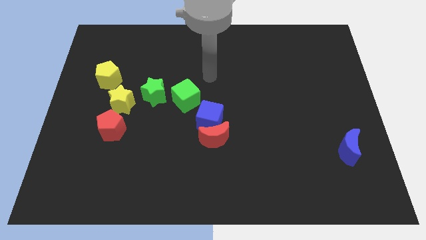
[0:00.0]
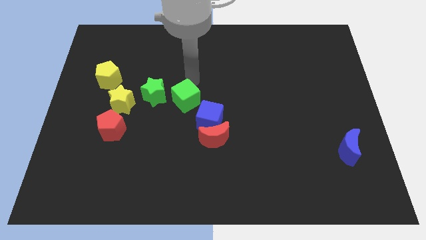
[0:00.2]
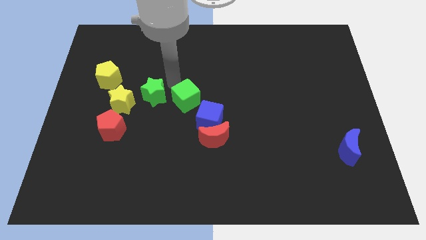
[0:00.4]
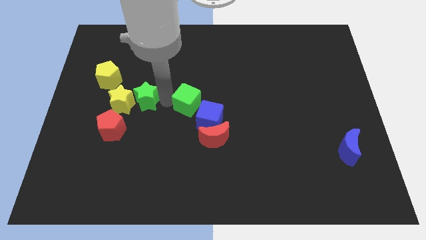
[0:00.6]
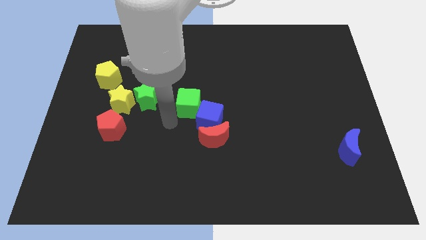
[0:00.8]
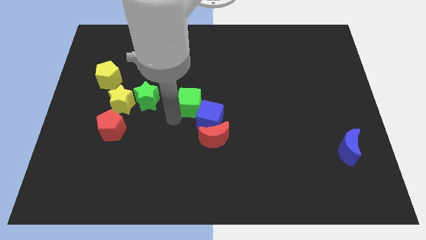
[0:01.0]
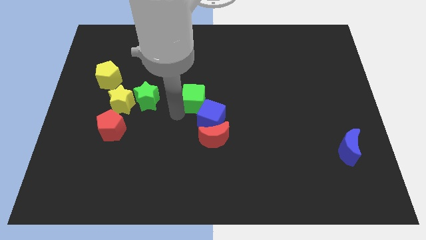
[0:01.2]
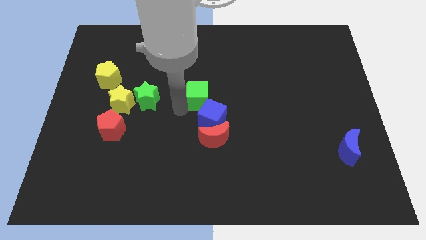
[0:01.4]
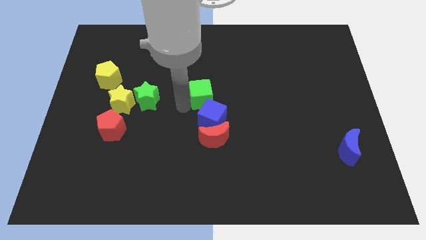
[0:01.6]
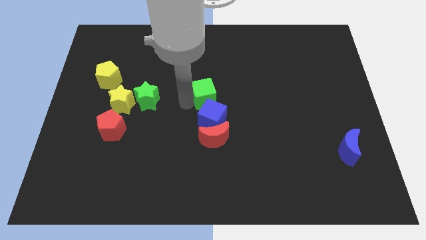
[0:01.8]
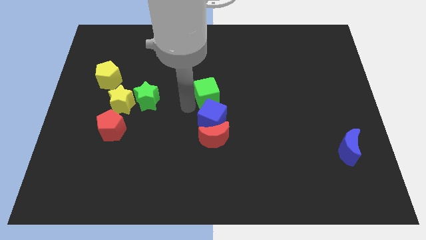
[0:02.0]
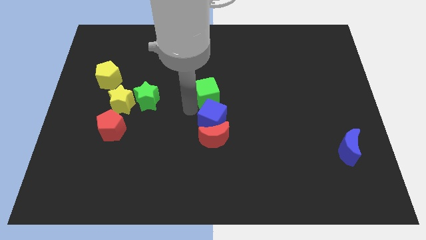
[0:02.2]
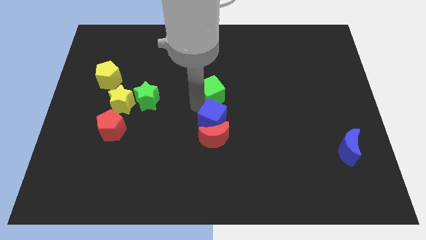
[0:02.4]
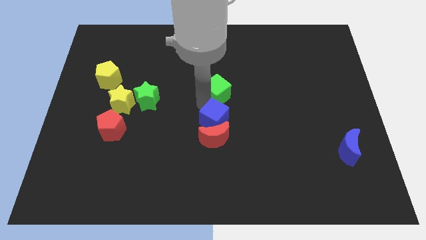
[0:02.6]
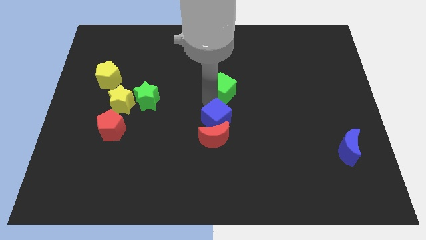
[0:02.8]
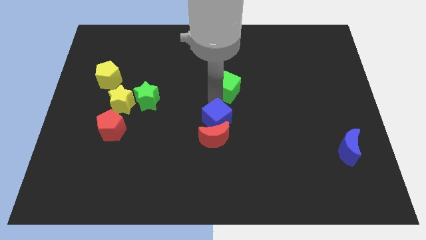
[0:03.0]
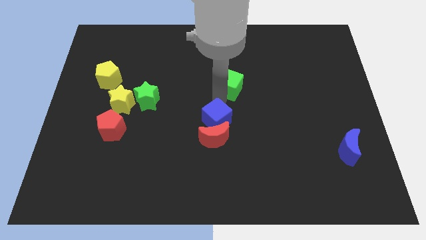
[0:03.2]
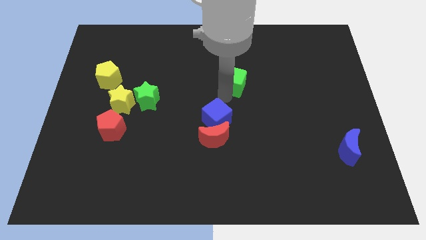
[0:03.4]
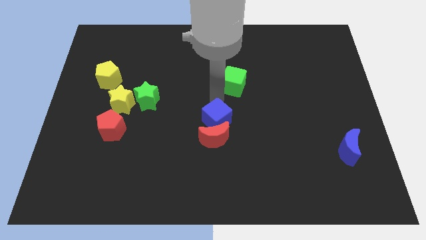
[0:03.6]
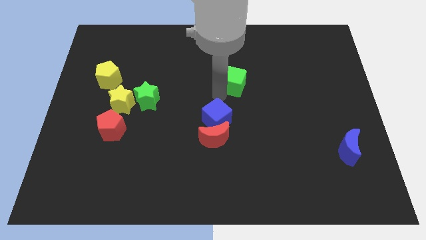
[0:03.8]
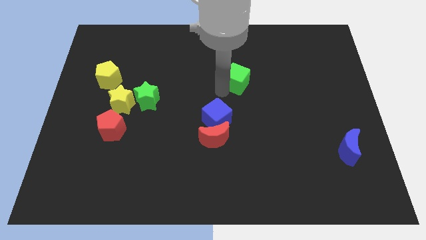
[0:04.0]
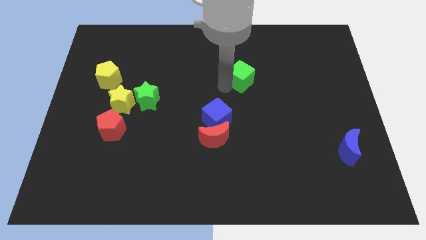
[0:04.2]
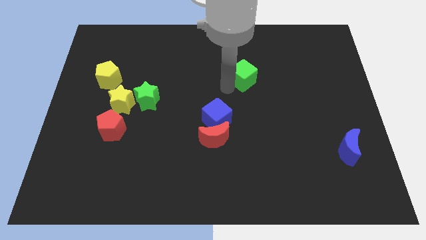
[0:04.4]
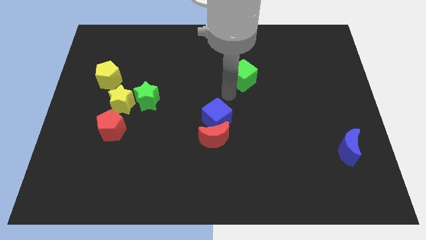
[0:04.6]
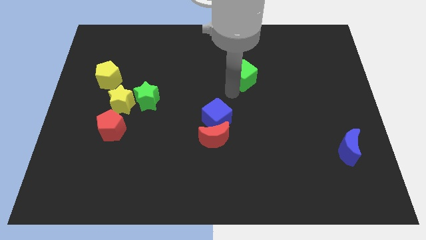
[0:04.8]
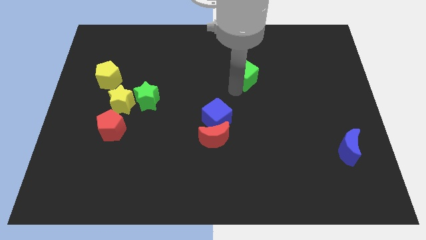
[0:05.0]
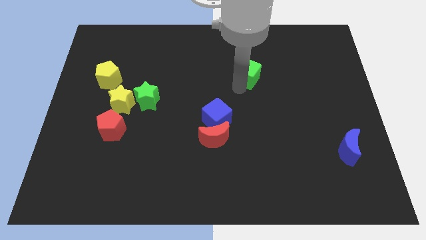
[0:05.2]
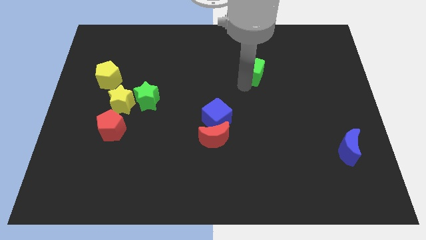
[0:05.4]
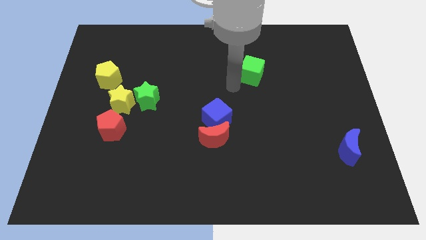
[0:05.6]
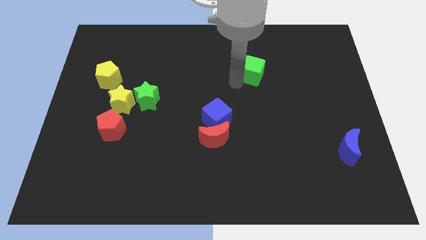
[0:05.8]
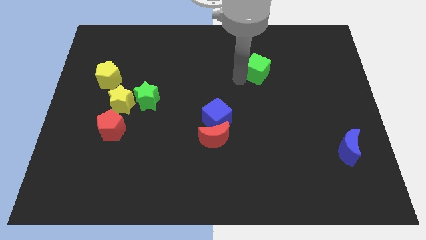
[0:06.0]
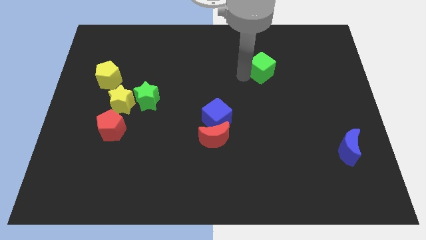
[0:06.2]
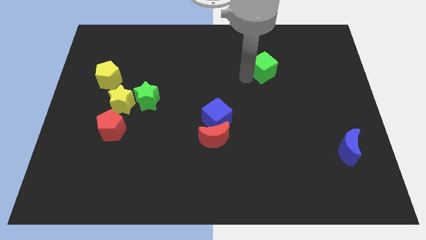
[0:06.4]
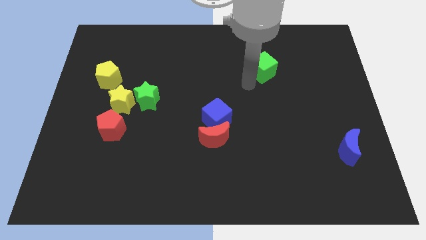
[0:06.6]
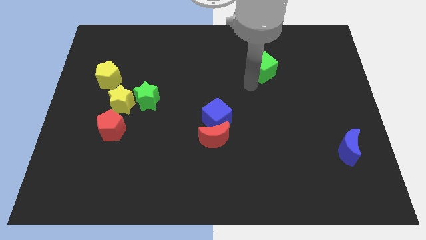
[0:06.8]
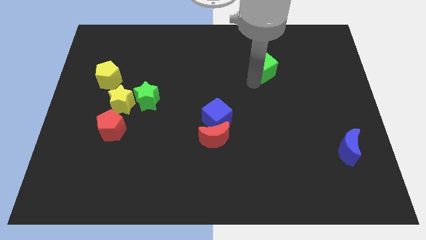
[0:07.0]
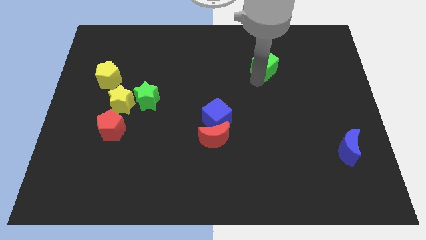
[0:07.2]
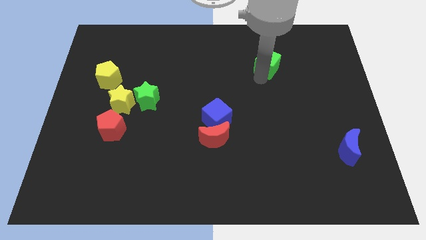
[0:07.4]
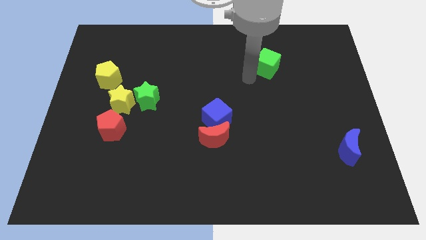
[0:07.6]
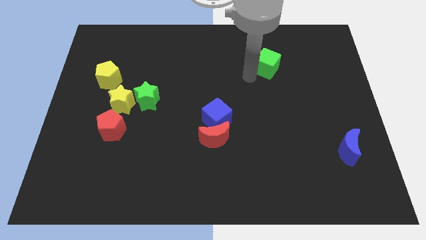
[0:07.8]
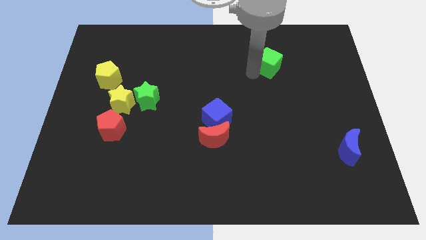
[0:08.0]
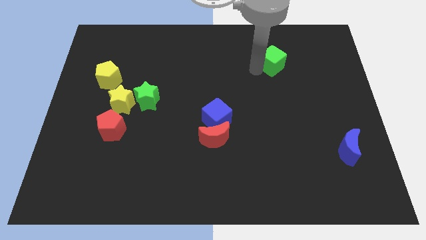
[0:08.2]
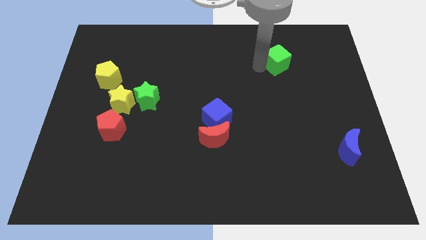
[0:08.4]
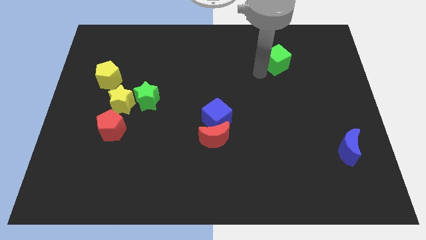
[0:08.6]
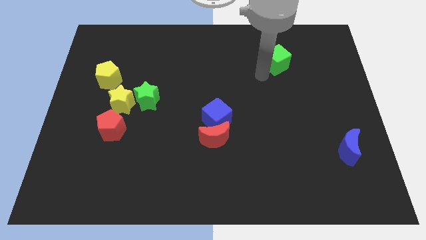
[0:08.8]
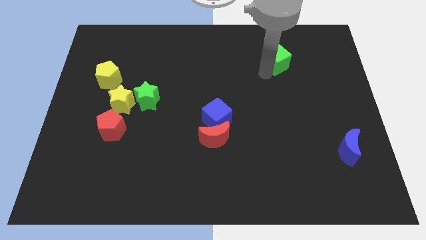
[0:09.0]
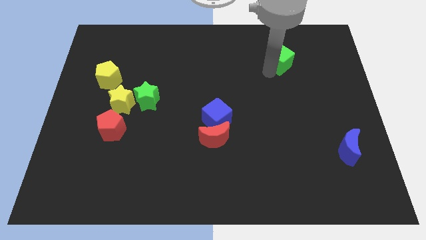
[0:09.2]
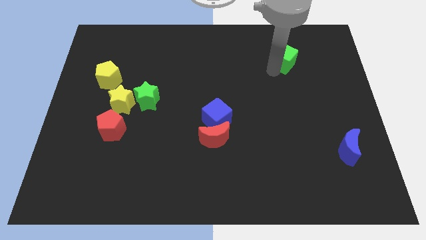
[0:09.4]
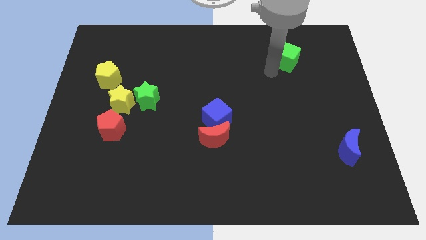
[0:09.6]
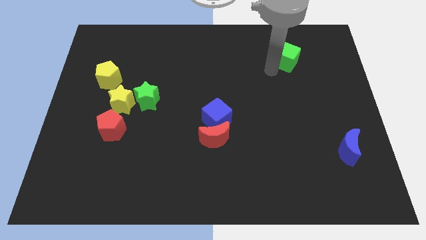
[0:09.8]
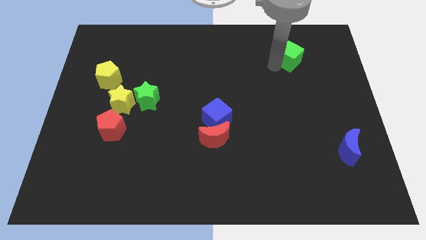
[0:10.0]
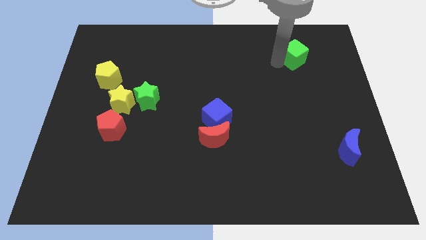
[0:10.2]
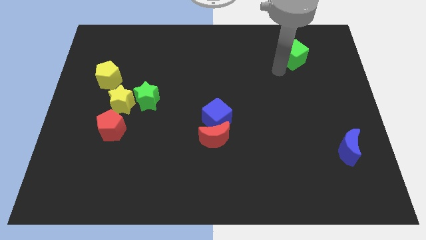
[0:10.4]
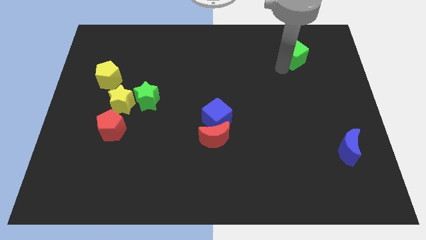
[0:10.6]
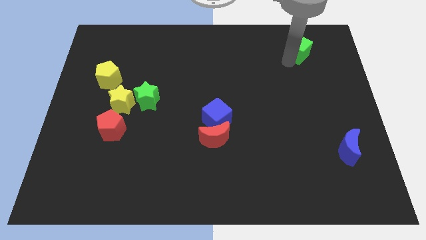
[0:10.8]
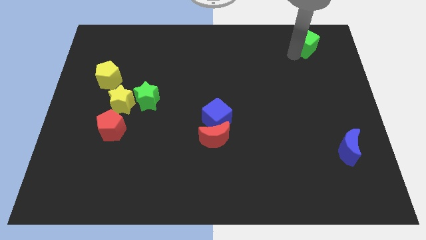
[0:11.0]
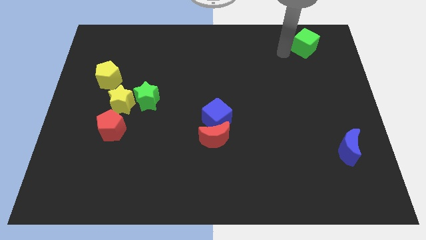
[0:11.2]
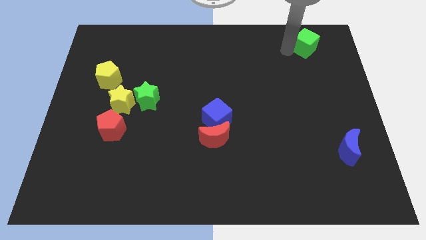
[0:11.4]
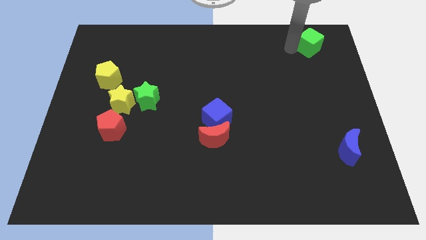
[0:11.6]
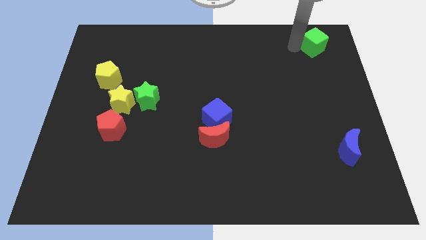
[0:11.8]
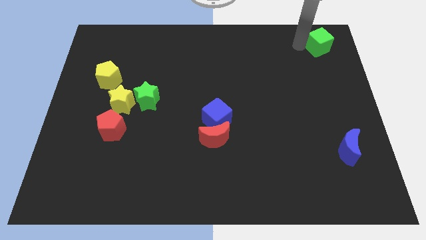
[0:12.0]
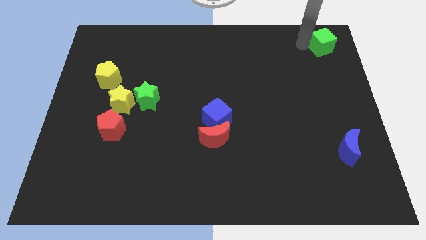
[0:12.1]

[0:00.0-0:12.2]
push the green cube to the top right

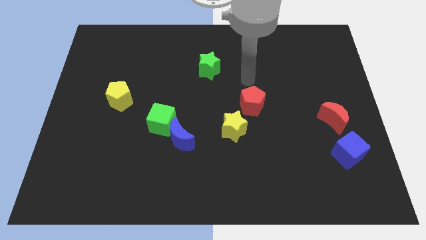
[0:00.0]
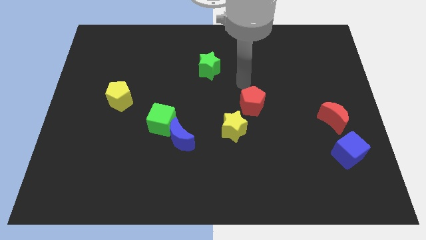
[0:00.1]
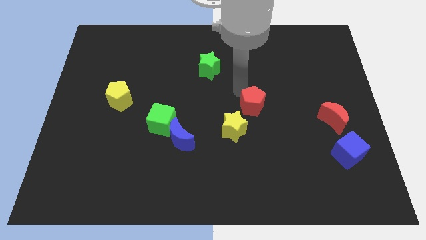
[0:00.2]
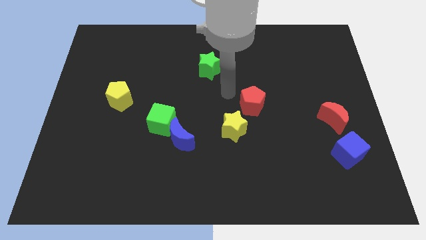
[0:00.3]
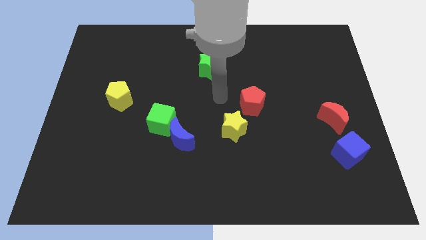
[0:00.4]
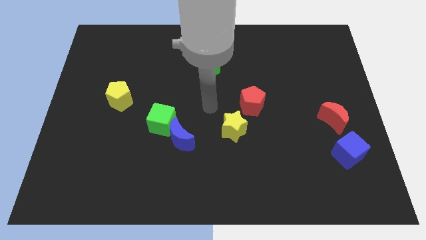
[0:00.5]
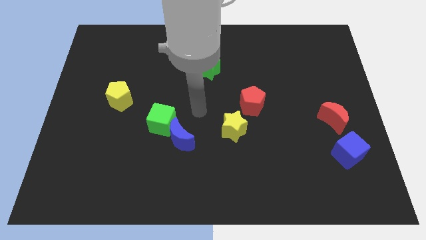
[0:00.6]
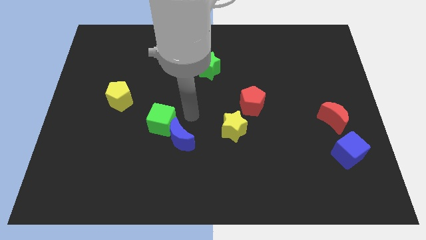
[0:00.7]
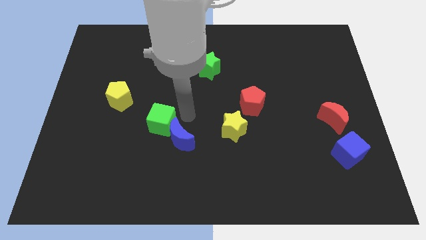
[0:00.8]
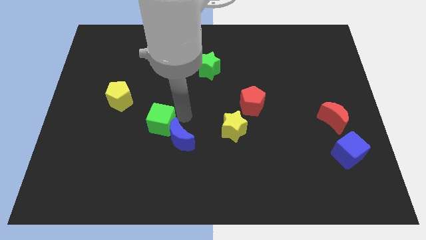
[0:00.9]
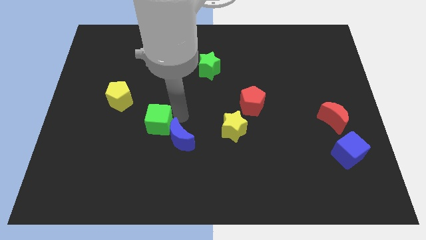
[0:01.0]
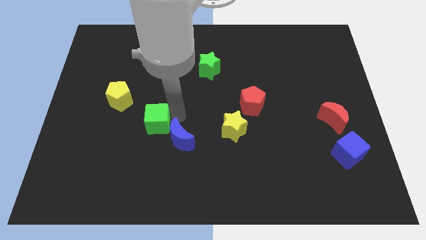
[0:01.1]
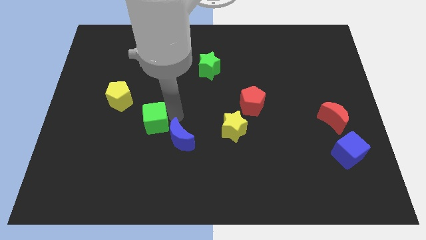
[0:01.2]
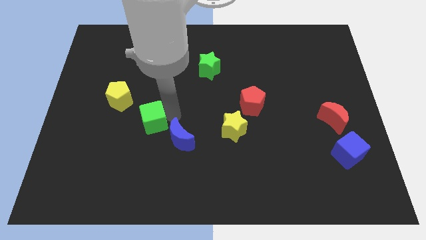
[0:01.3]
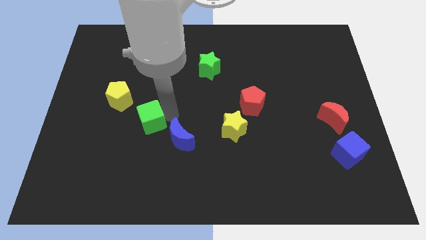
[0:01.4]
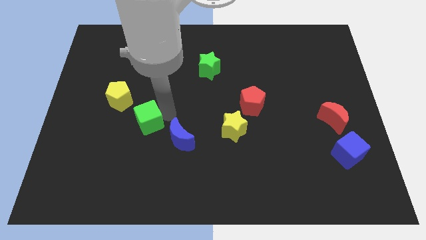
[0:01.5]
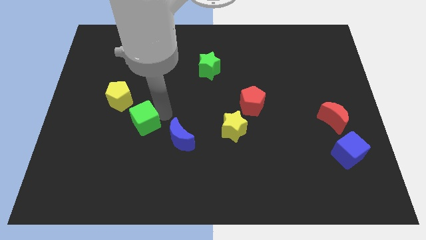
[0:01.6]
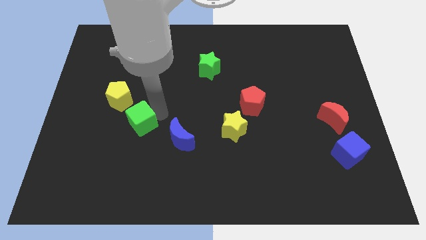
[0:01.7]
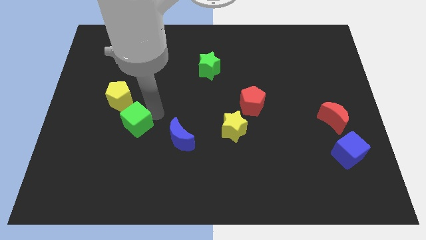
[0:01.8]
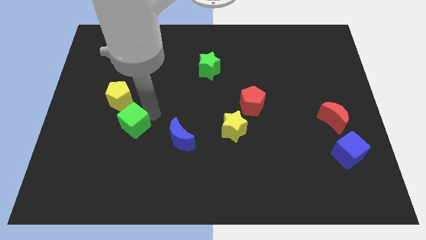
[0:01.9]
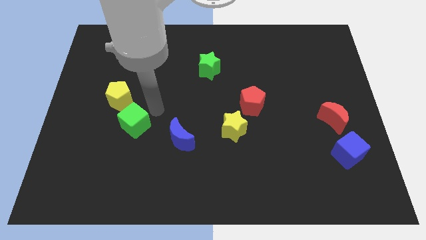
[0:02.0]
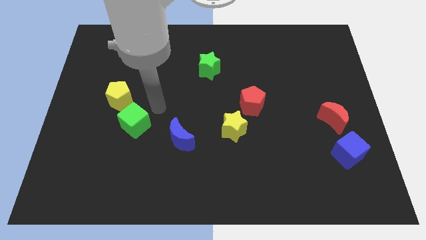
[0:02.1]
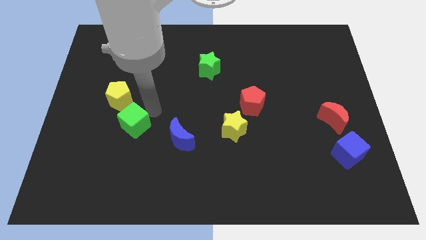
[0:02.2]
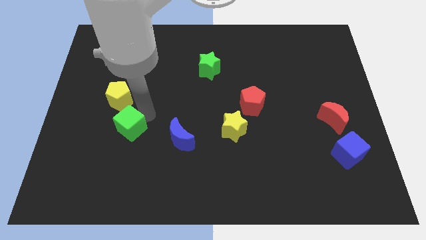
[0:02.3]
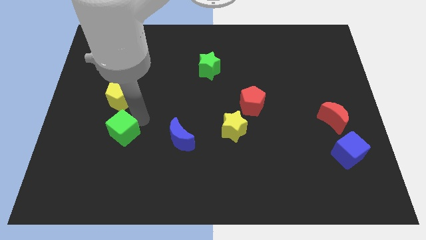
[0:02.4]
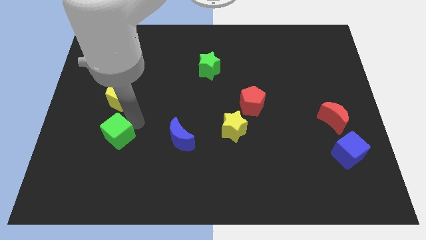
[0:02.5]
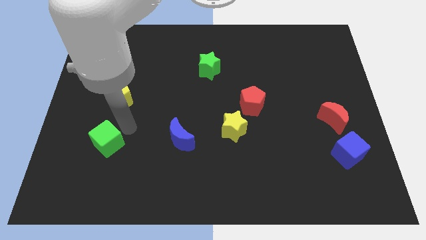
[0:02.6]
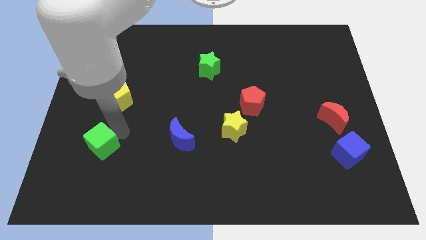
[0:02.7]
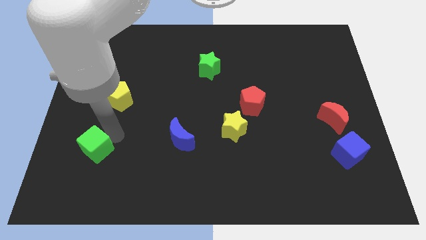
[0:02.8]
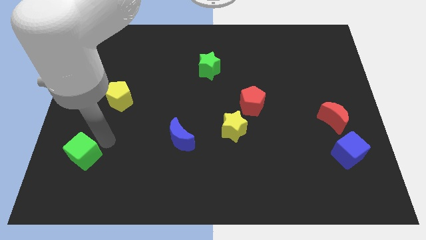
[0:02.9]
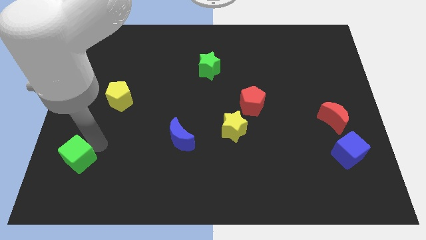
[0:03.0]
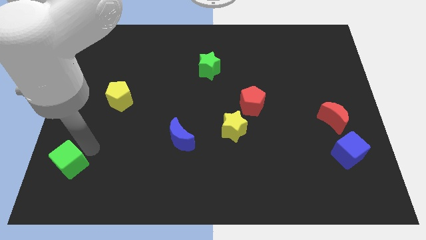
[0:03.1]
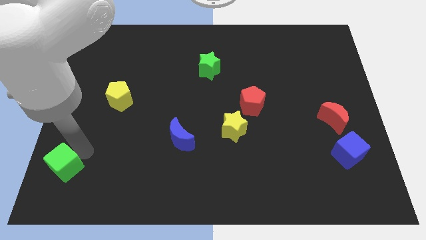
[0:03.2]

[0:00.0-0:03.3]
move the green cube to the bottom left corner
